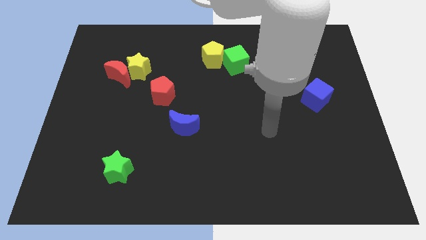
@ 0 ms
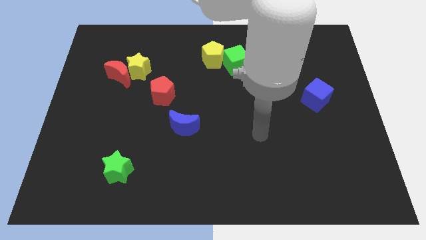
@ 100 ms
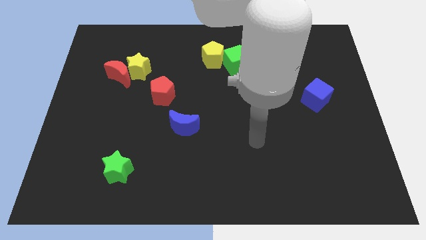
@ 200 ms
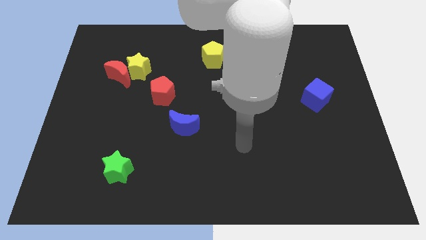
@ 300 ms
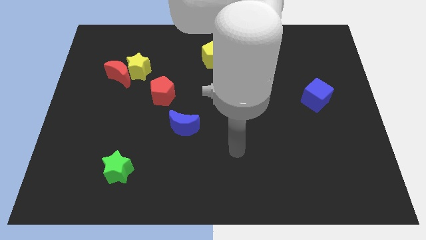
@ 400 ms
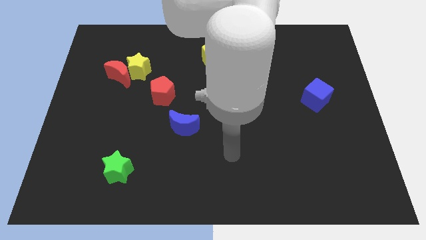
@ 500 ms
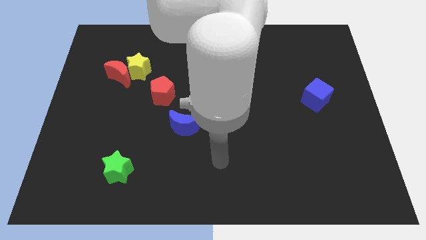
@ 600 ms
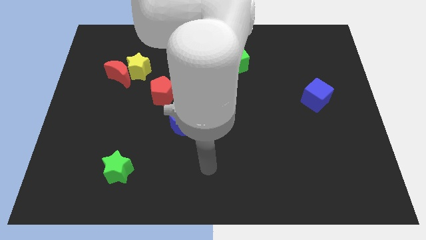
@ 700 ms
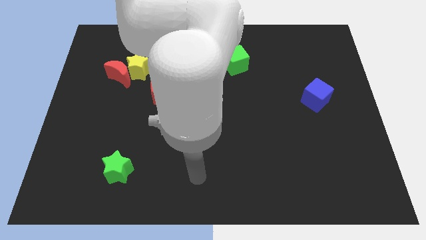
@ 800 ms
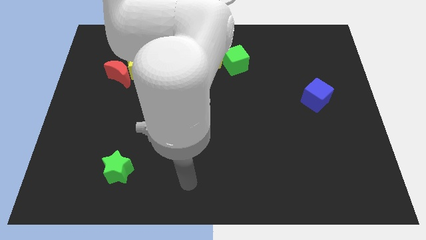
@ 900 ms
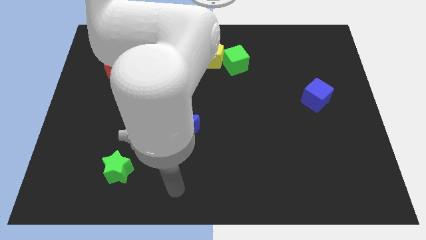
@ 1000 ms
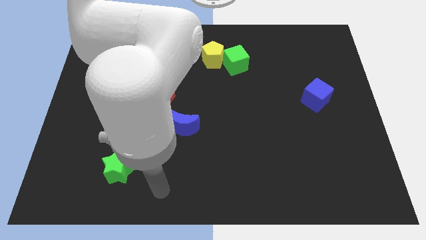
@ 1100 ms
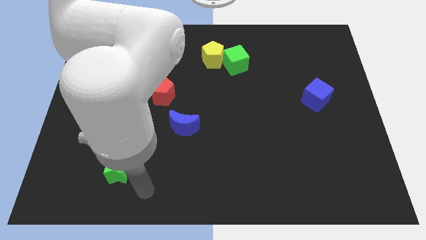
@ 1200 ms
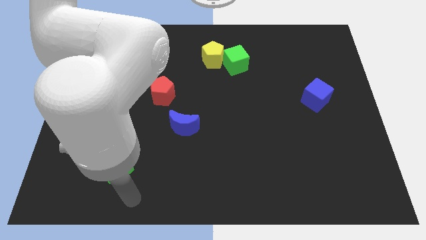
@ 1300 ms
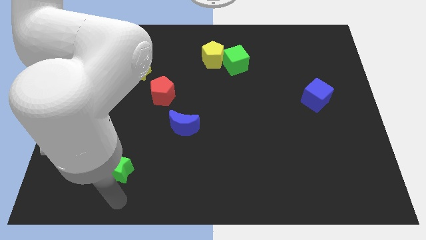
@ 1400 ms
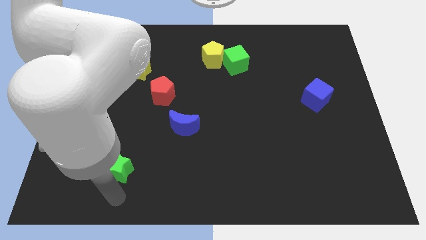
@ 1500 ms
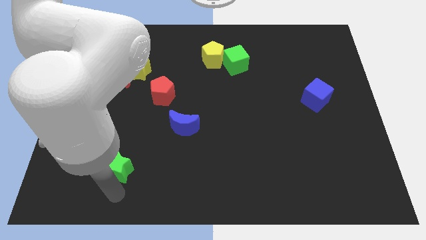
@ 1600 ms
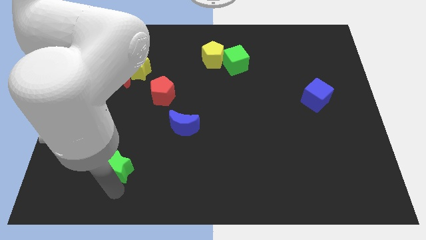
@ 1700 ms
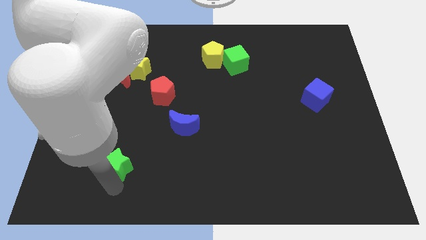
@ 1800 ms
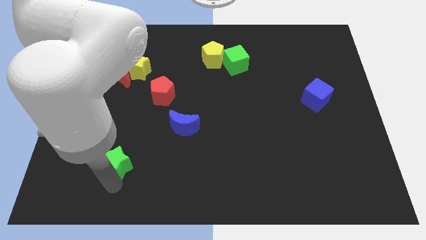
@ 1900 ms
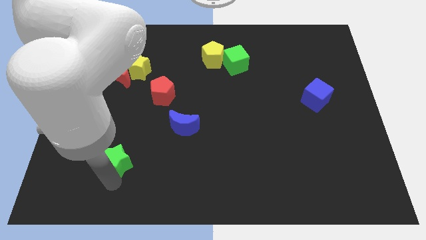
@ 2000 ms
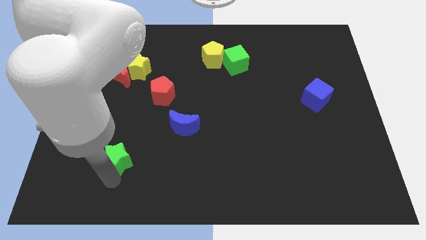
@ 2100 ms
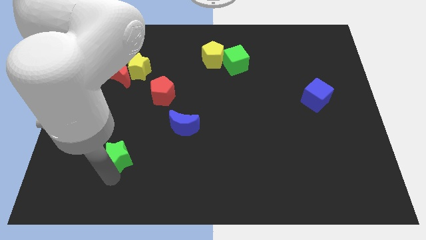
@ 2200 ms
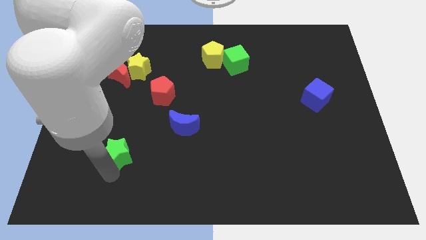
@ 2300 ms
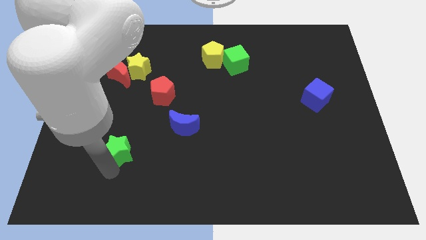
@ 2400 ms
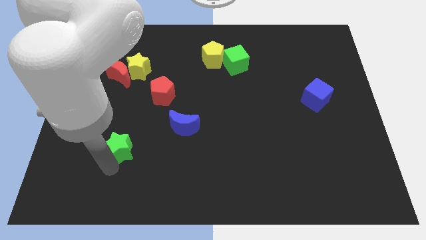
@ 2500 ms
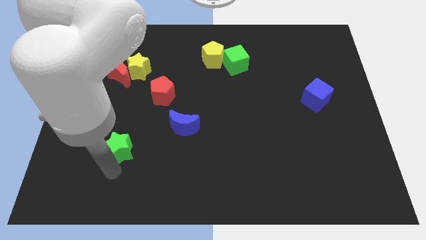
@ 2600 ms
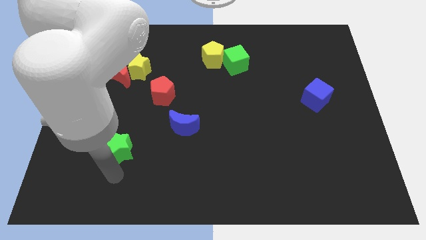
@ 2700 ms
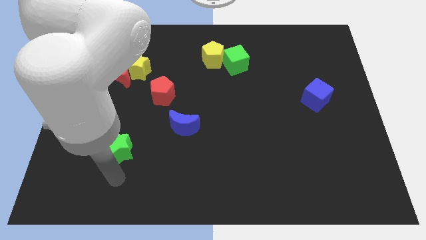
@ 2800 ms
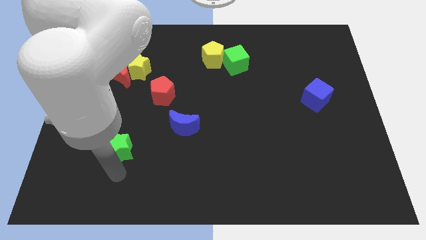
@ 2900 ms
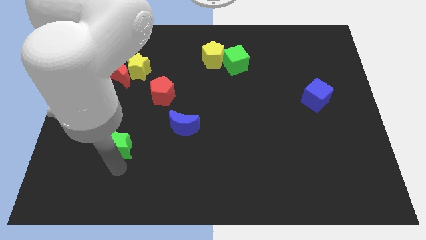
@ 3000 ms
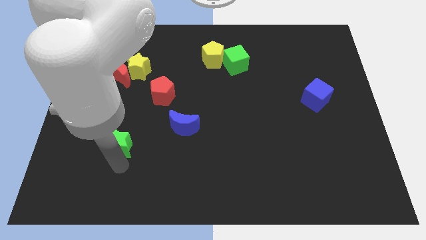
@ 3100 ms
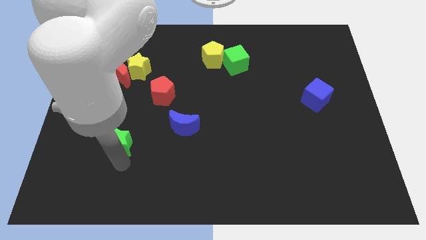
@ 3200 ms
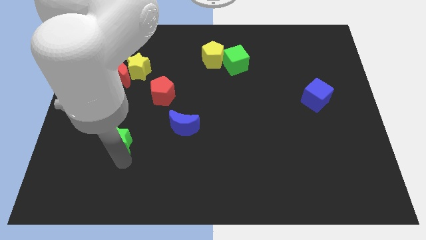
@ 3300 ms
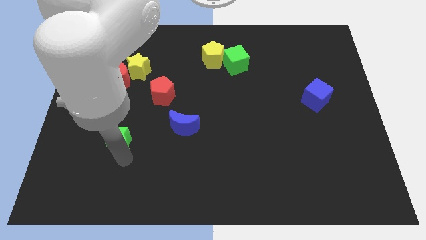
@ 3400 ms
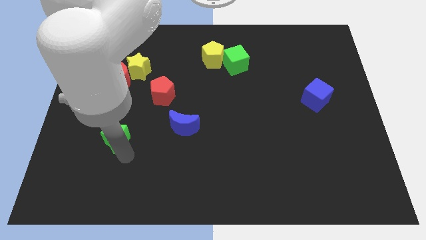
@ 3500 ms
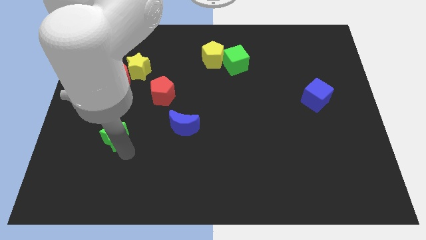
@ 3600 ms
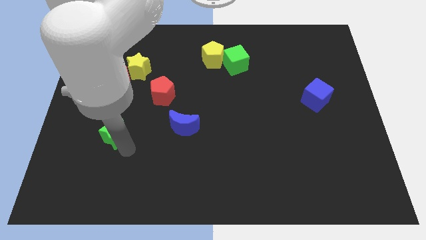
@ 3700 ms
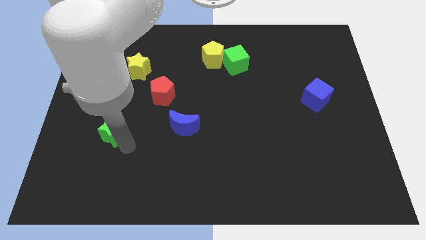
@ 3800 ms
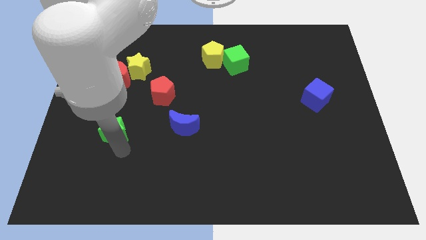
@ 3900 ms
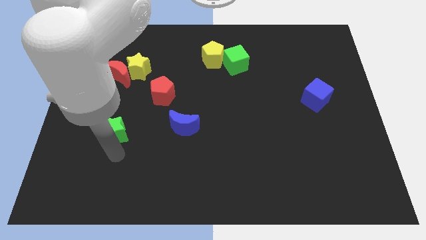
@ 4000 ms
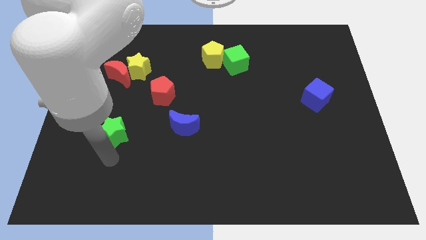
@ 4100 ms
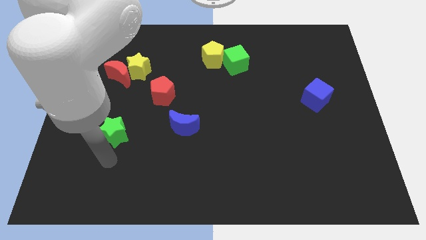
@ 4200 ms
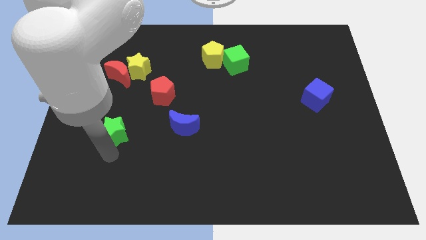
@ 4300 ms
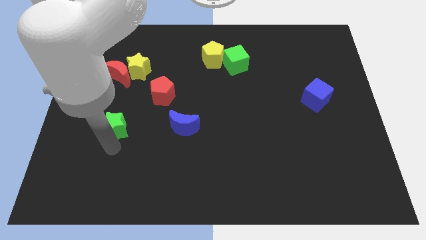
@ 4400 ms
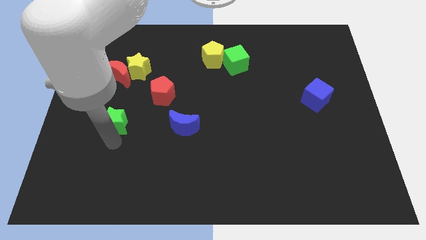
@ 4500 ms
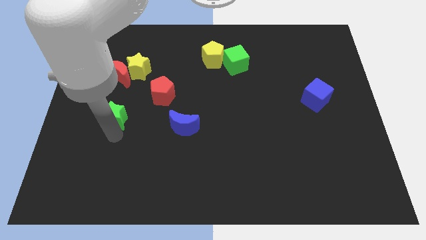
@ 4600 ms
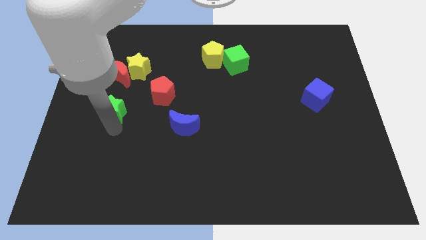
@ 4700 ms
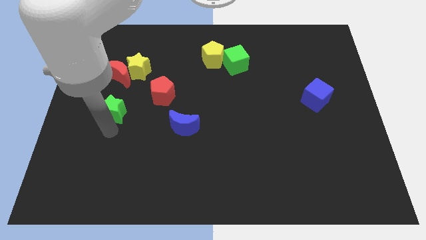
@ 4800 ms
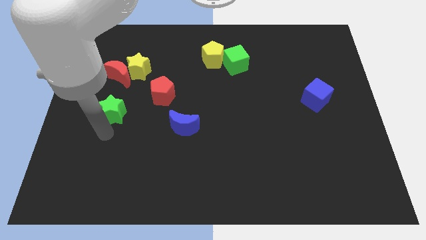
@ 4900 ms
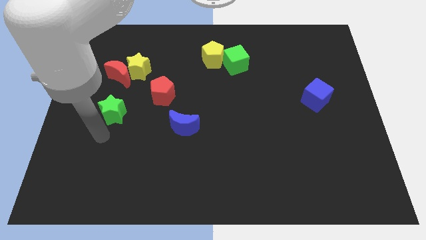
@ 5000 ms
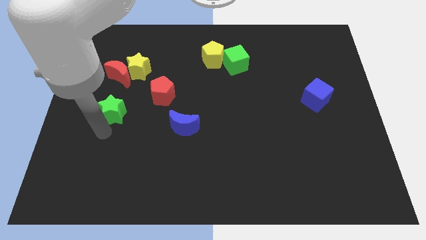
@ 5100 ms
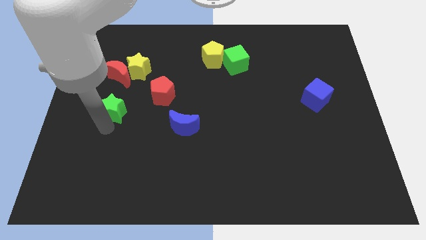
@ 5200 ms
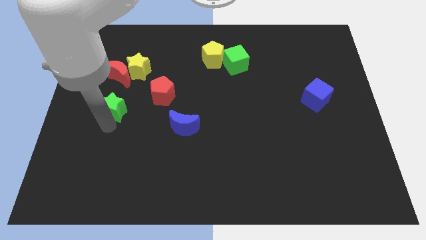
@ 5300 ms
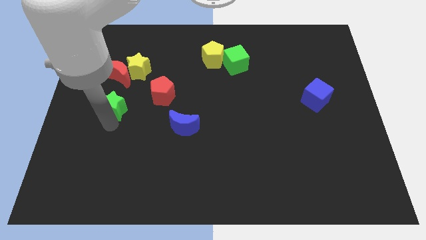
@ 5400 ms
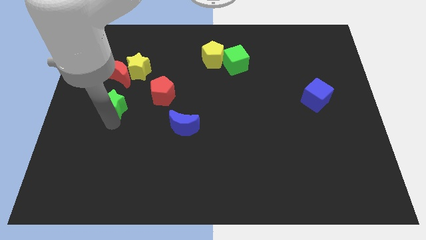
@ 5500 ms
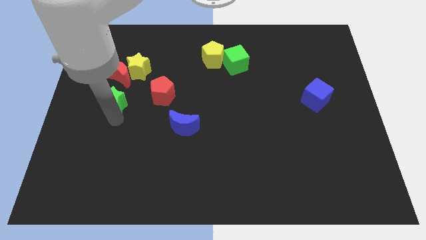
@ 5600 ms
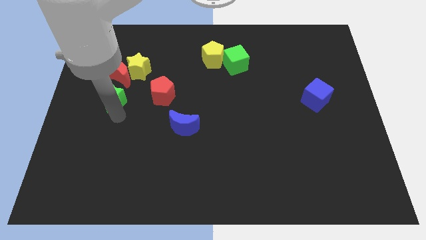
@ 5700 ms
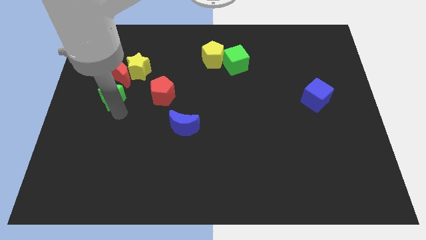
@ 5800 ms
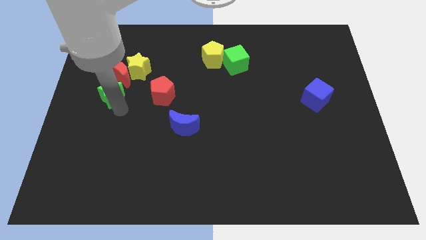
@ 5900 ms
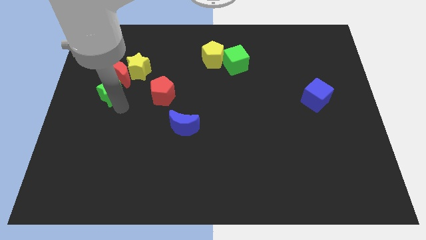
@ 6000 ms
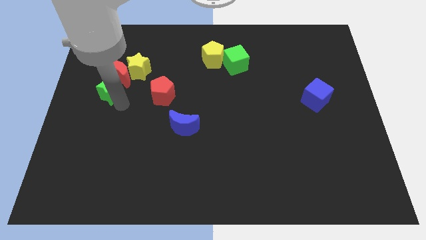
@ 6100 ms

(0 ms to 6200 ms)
slide the green star towards the red moon
